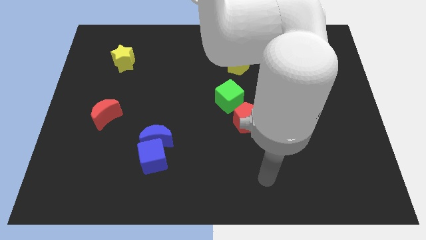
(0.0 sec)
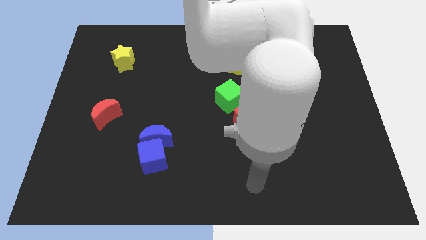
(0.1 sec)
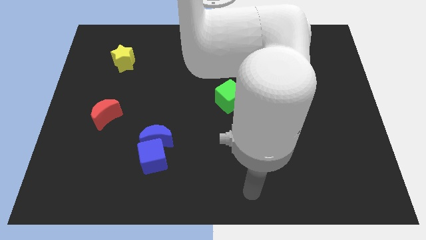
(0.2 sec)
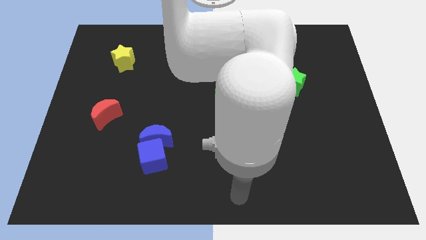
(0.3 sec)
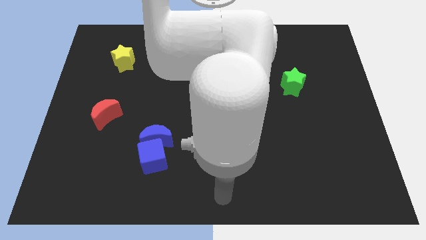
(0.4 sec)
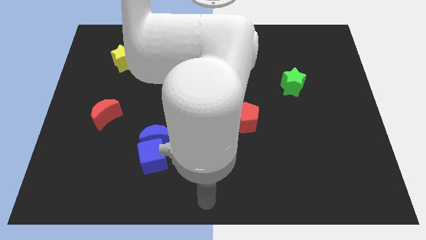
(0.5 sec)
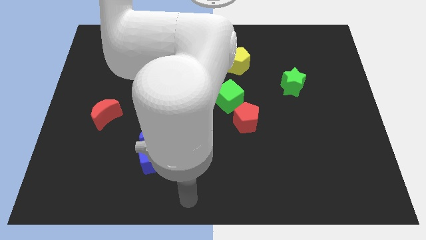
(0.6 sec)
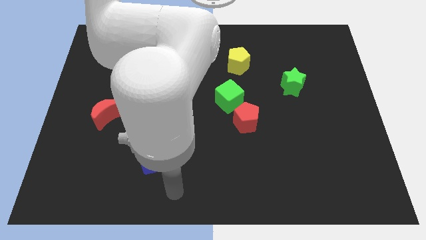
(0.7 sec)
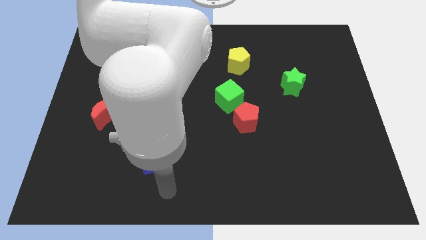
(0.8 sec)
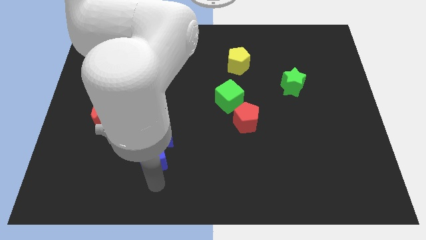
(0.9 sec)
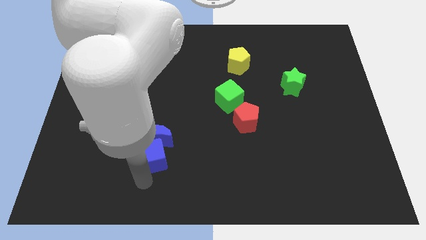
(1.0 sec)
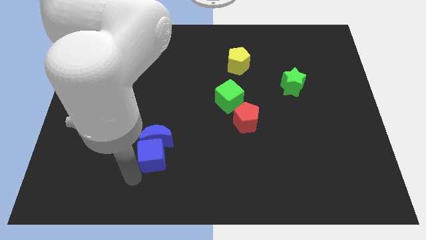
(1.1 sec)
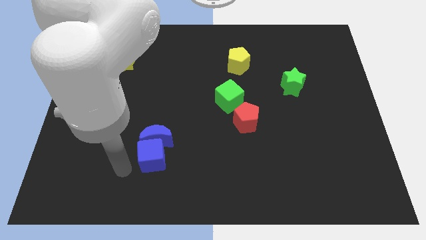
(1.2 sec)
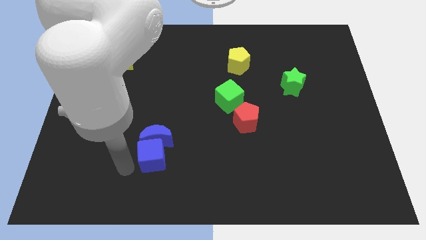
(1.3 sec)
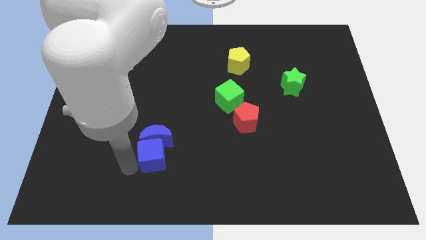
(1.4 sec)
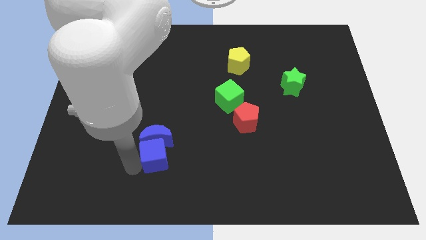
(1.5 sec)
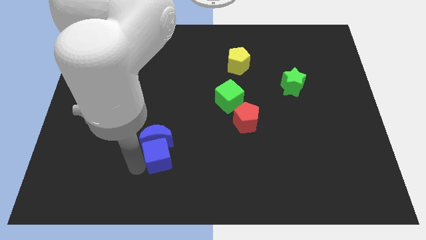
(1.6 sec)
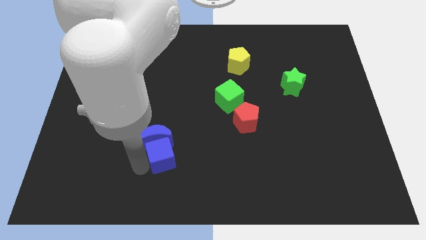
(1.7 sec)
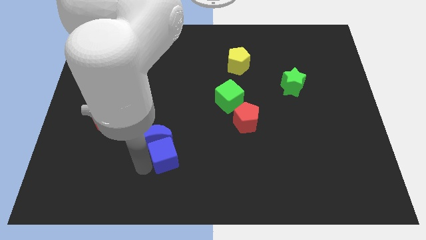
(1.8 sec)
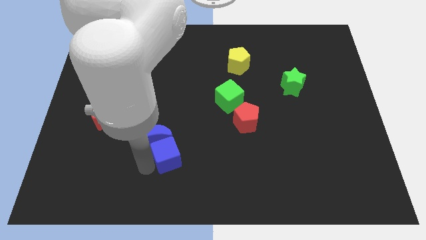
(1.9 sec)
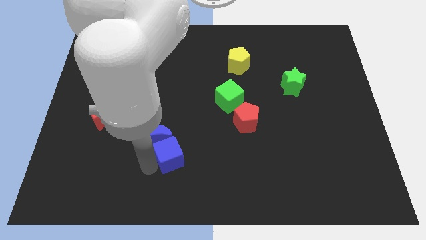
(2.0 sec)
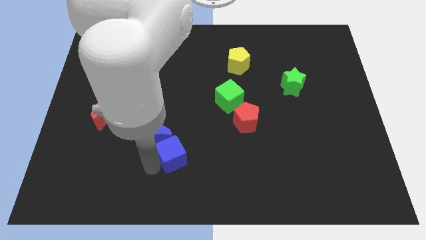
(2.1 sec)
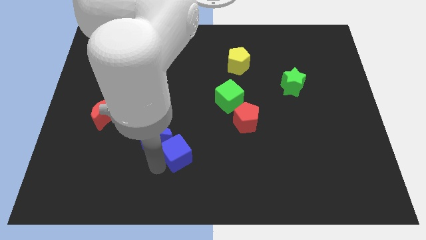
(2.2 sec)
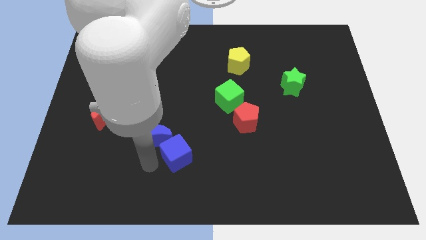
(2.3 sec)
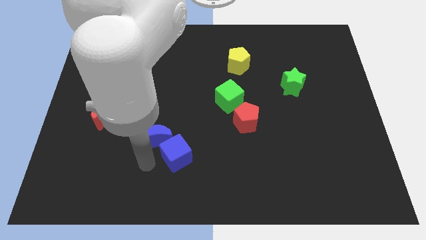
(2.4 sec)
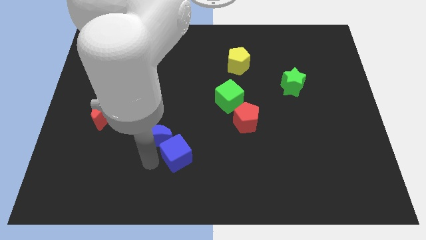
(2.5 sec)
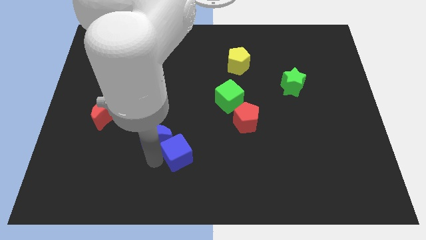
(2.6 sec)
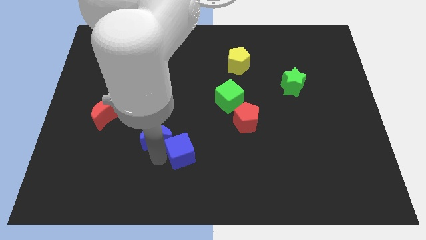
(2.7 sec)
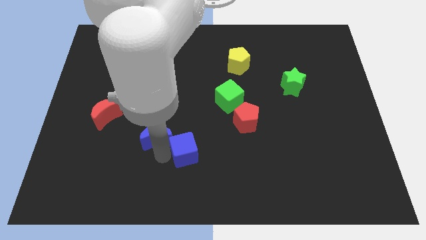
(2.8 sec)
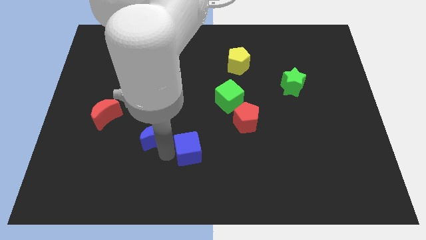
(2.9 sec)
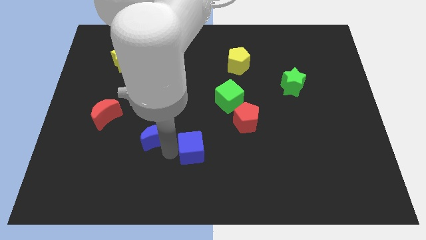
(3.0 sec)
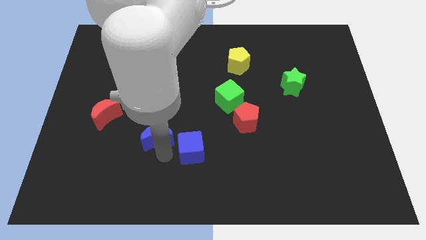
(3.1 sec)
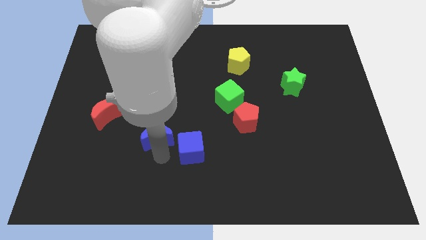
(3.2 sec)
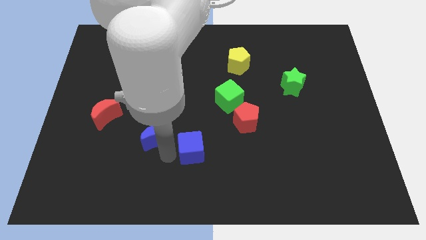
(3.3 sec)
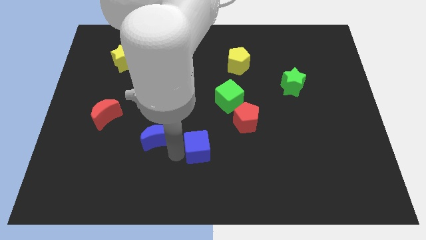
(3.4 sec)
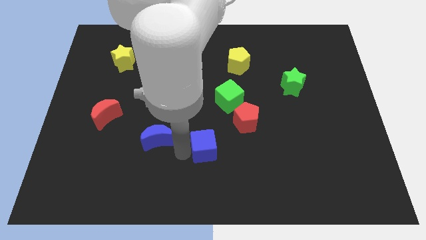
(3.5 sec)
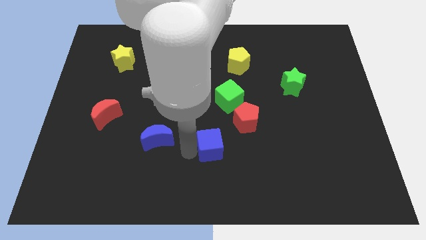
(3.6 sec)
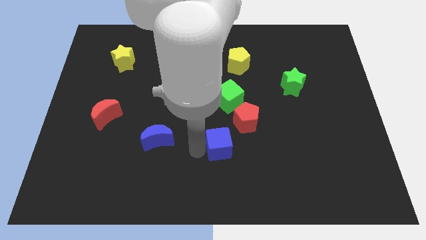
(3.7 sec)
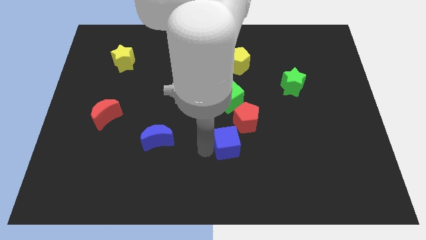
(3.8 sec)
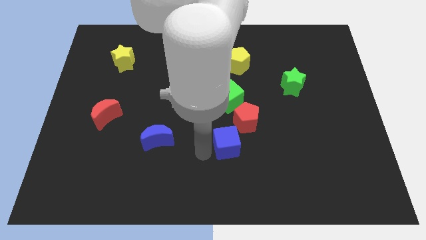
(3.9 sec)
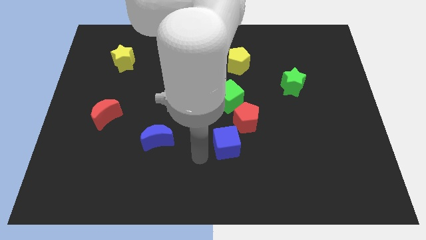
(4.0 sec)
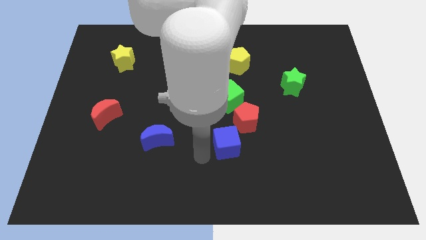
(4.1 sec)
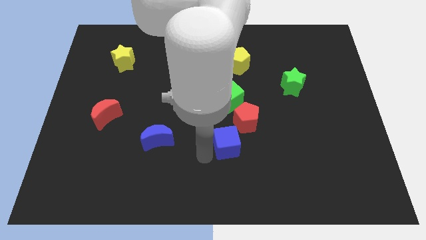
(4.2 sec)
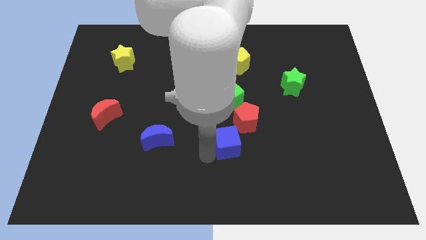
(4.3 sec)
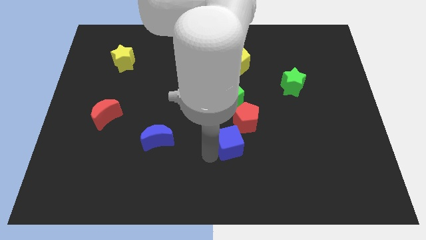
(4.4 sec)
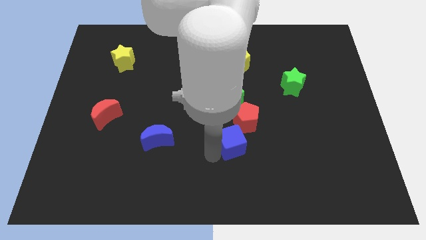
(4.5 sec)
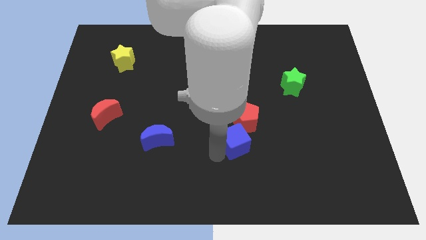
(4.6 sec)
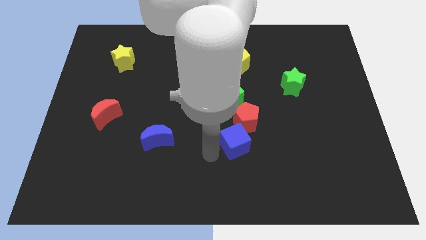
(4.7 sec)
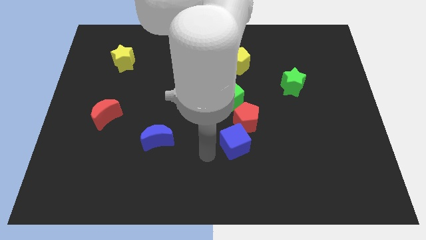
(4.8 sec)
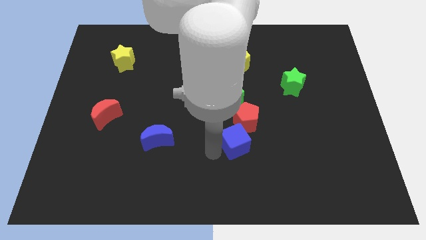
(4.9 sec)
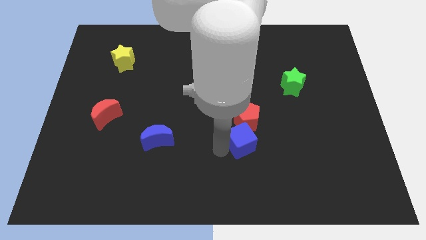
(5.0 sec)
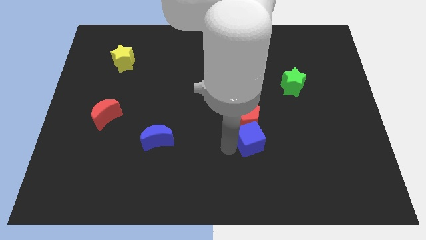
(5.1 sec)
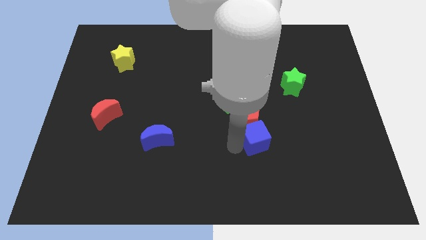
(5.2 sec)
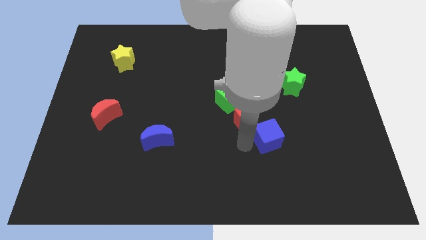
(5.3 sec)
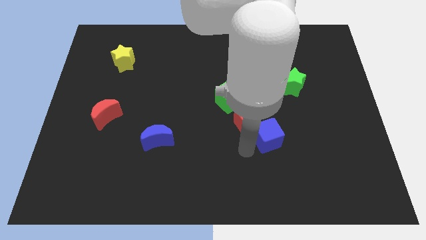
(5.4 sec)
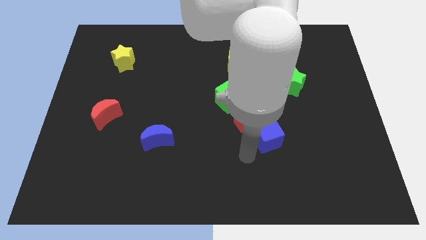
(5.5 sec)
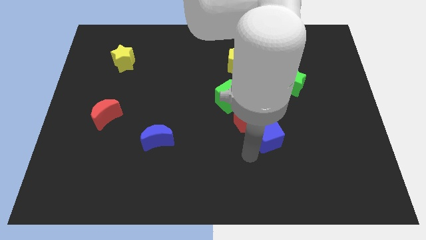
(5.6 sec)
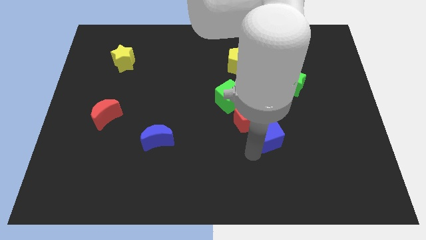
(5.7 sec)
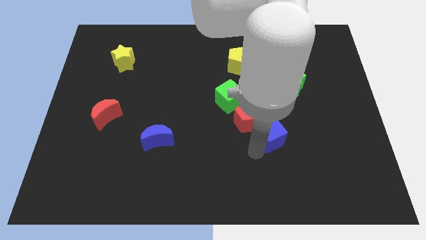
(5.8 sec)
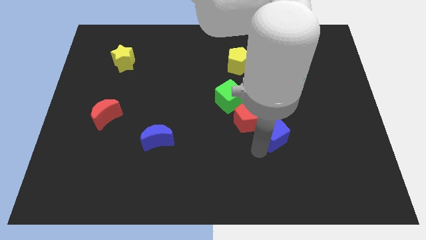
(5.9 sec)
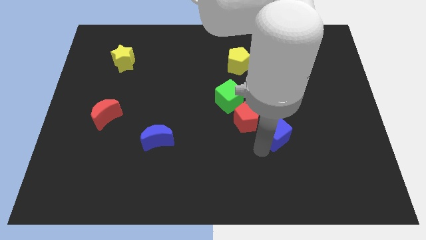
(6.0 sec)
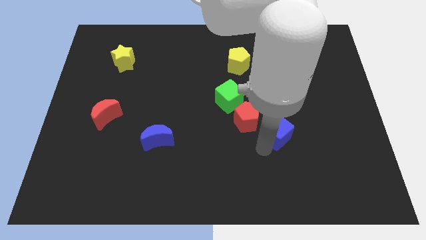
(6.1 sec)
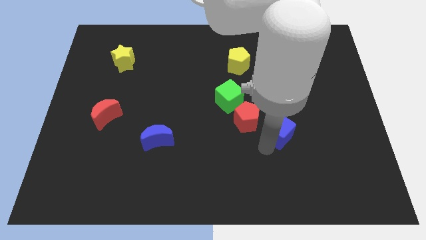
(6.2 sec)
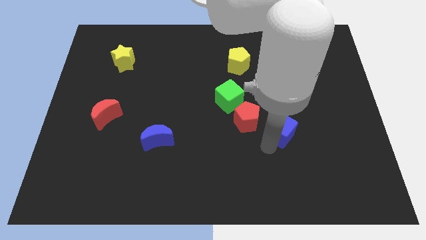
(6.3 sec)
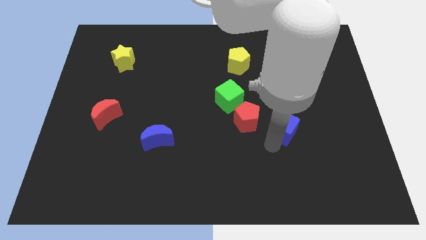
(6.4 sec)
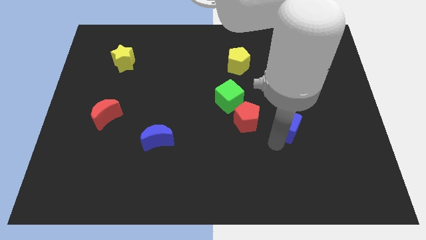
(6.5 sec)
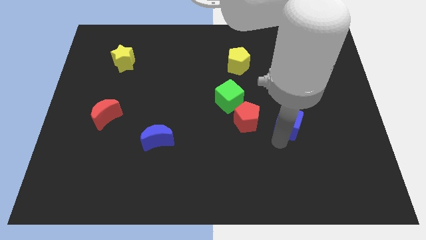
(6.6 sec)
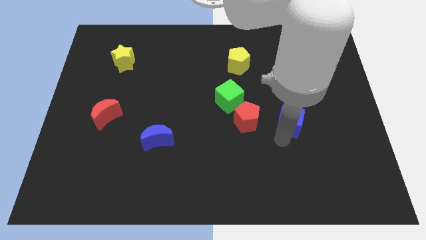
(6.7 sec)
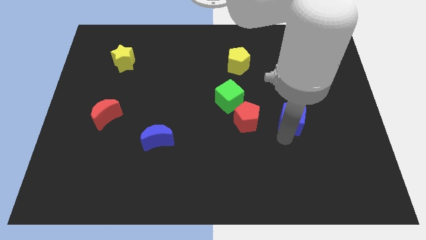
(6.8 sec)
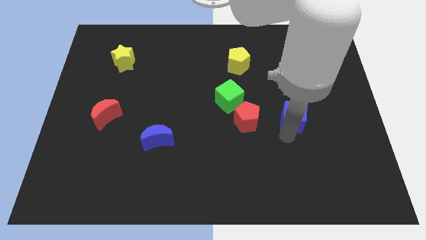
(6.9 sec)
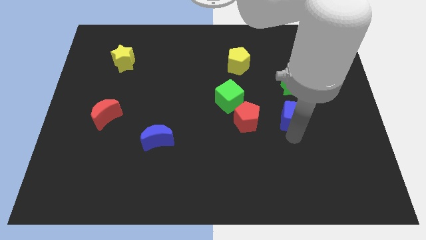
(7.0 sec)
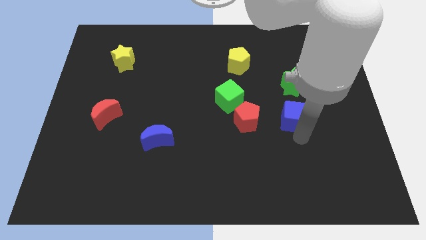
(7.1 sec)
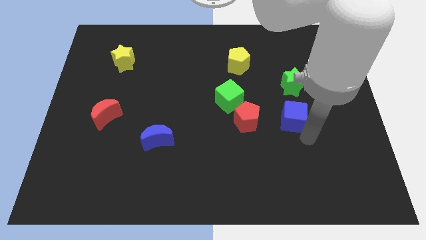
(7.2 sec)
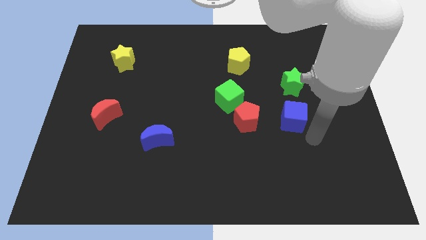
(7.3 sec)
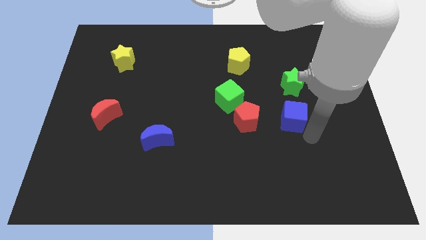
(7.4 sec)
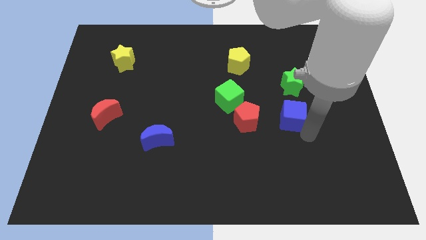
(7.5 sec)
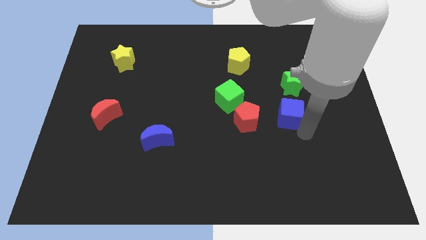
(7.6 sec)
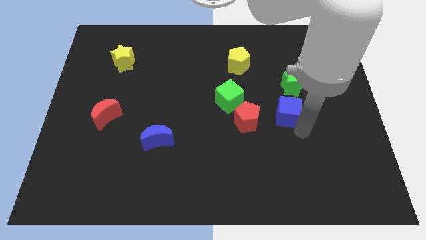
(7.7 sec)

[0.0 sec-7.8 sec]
push the blue cube to the bottom left of the green star

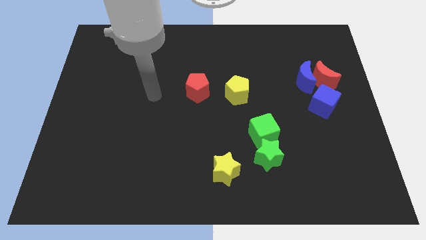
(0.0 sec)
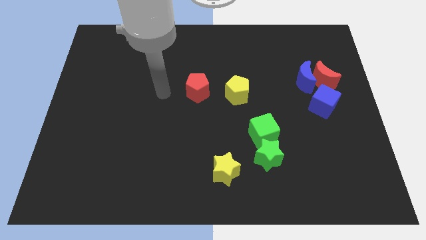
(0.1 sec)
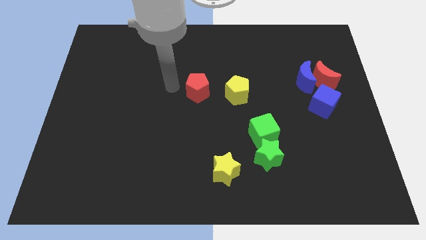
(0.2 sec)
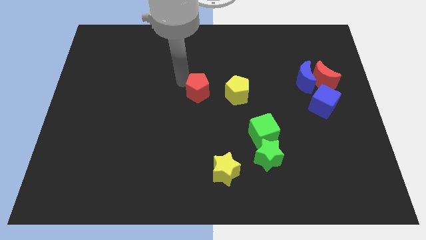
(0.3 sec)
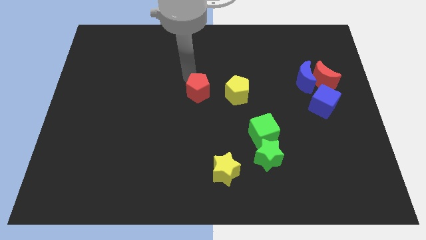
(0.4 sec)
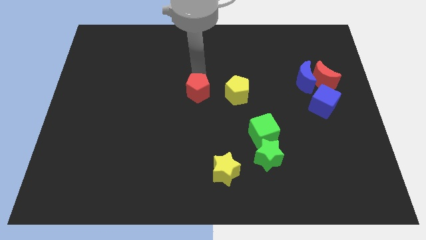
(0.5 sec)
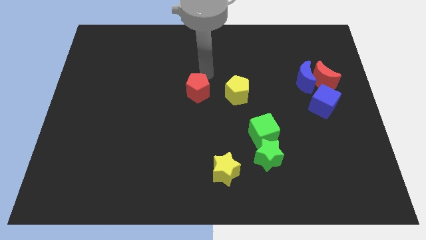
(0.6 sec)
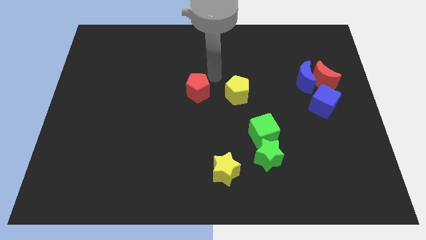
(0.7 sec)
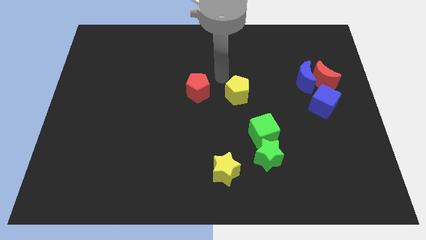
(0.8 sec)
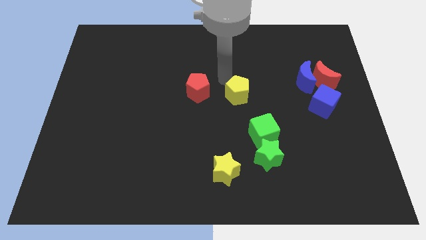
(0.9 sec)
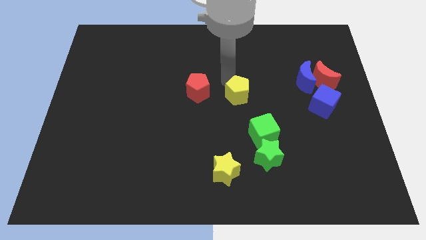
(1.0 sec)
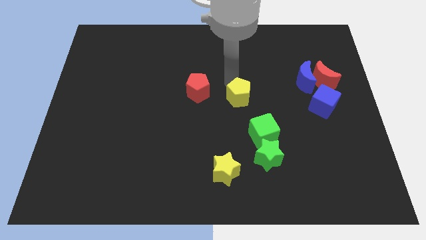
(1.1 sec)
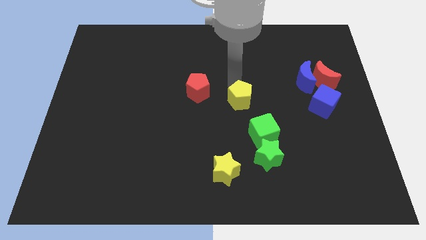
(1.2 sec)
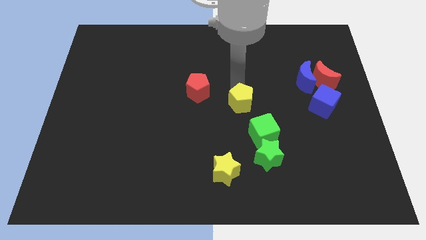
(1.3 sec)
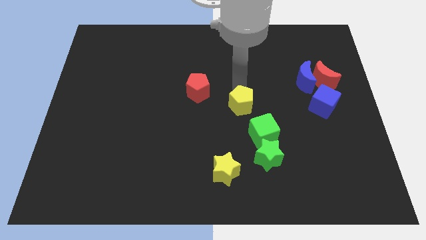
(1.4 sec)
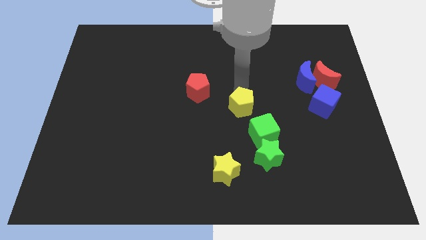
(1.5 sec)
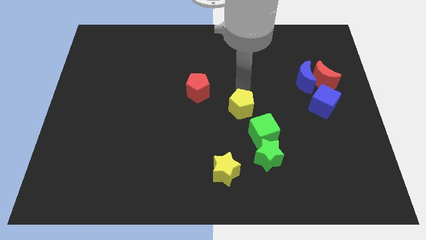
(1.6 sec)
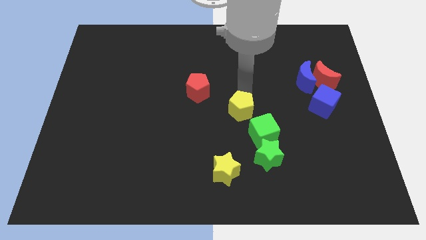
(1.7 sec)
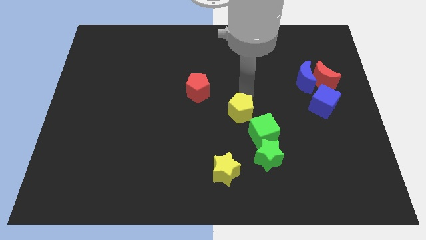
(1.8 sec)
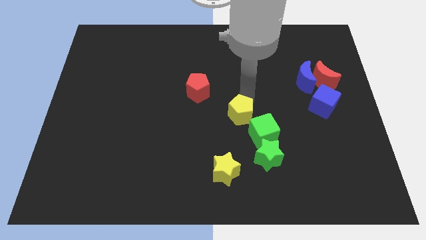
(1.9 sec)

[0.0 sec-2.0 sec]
push the yellow pentagon to the top side of the green star
